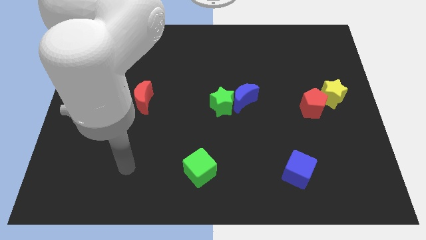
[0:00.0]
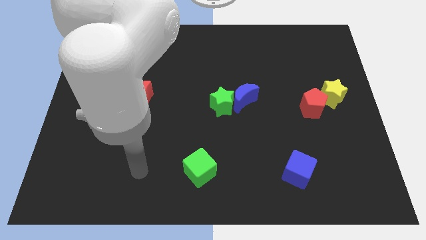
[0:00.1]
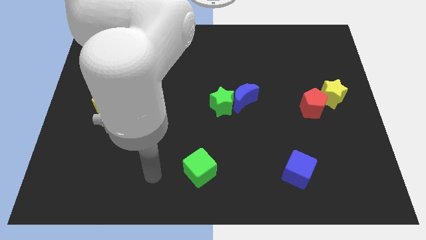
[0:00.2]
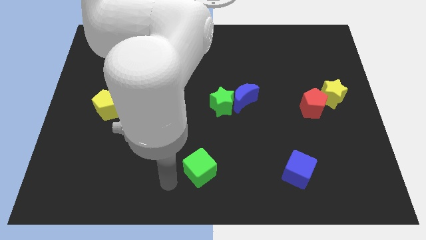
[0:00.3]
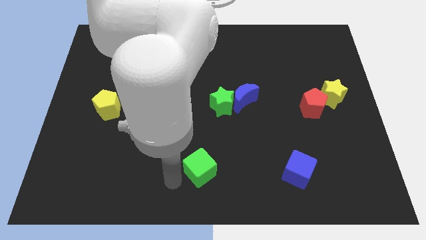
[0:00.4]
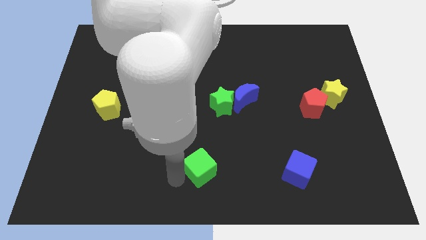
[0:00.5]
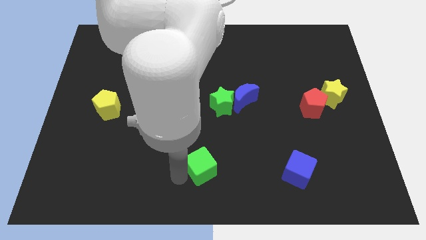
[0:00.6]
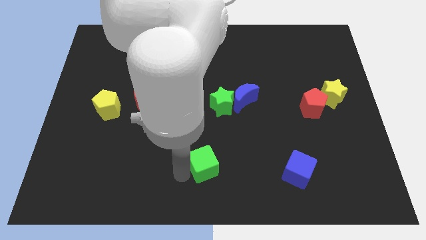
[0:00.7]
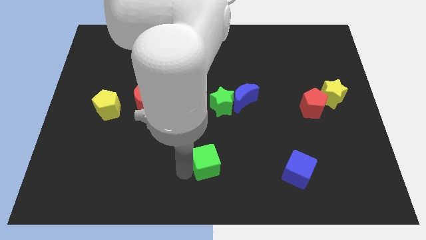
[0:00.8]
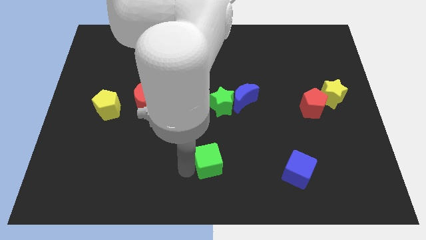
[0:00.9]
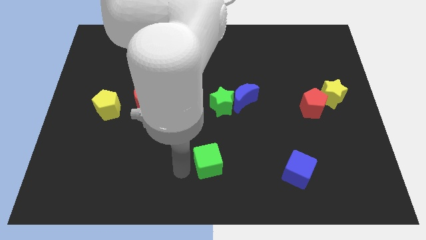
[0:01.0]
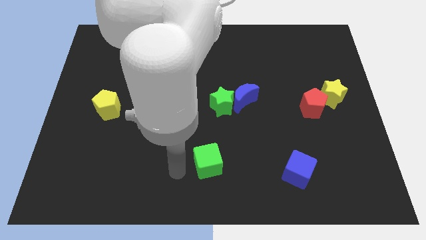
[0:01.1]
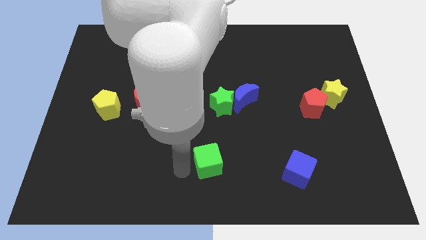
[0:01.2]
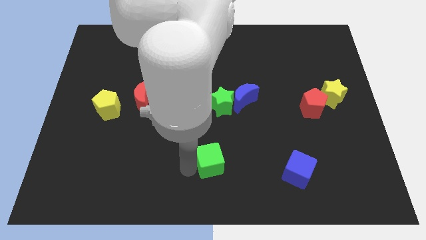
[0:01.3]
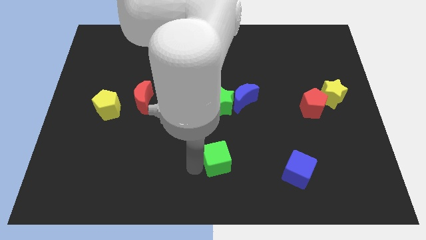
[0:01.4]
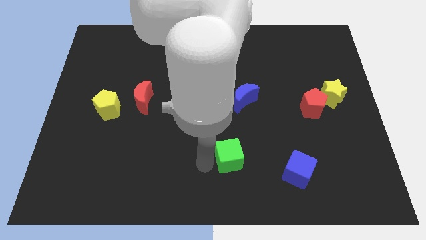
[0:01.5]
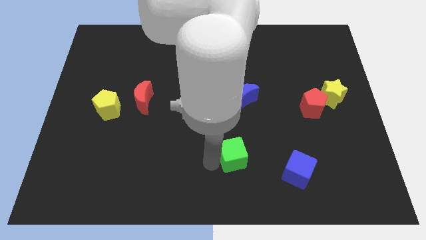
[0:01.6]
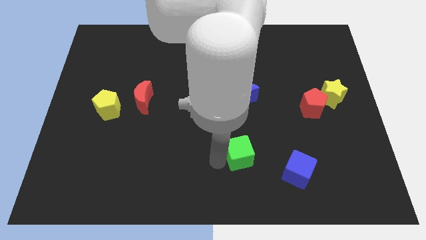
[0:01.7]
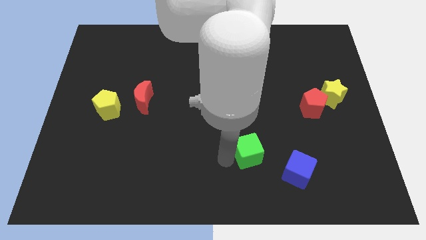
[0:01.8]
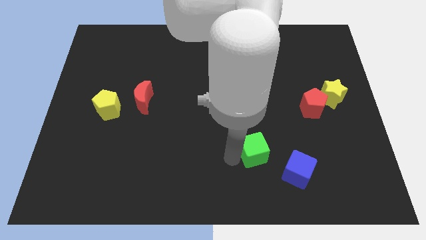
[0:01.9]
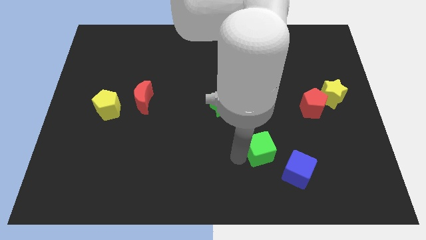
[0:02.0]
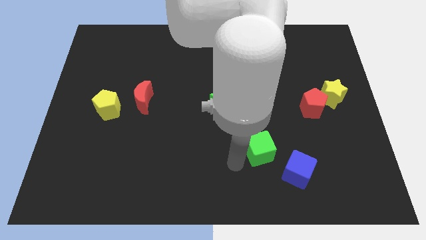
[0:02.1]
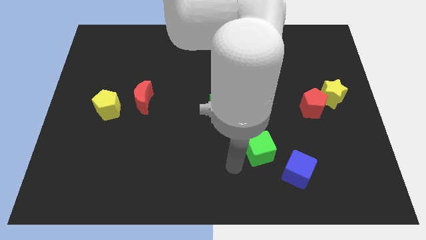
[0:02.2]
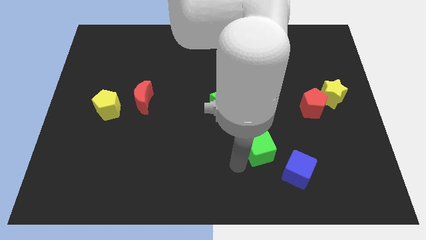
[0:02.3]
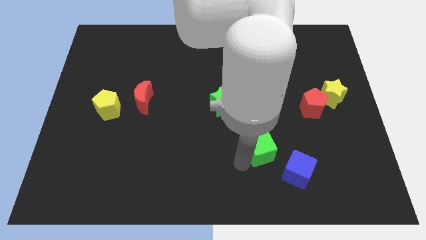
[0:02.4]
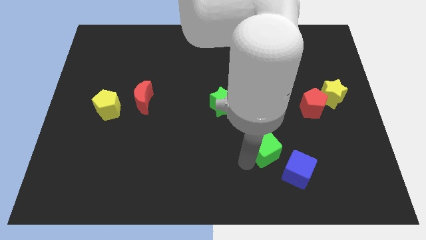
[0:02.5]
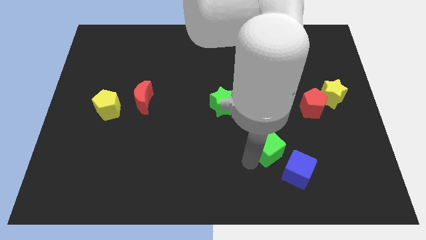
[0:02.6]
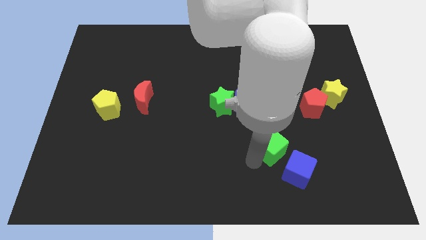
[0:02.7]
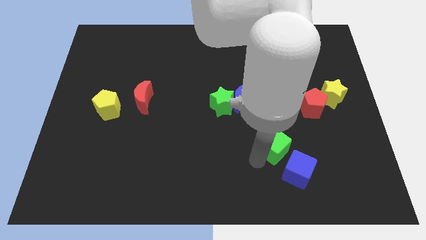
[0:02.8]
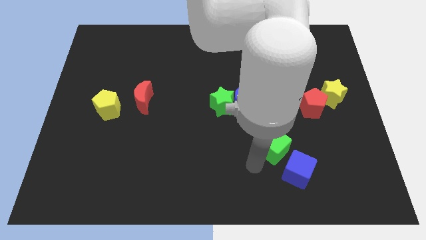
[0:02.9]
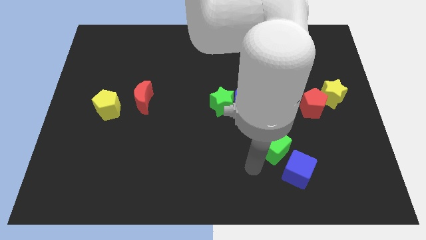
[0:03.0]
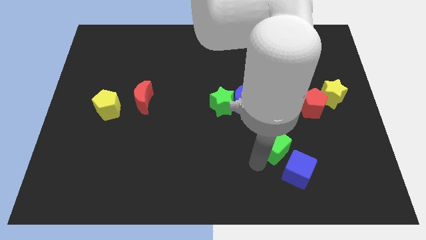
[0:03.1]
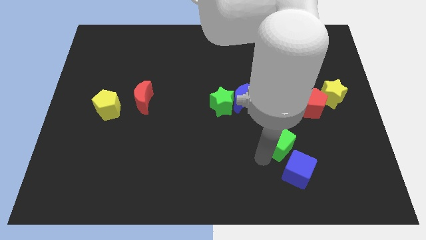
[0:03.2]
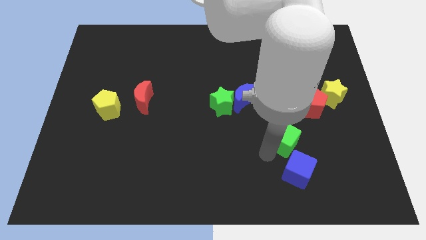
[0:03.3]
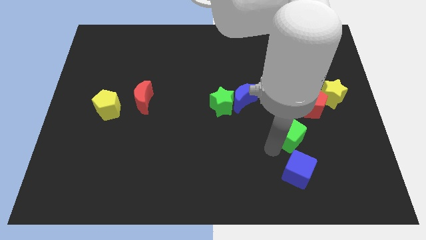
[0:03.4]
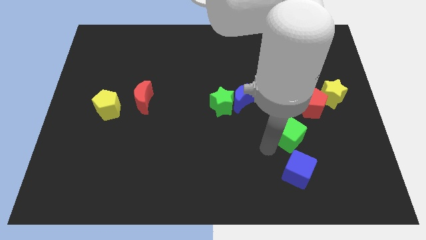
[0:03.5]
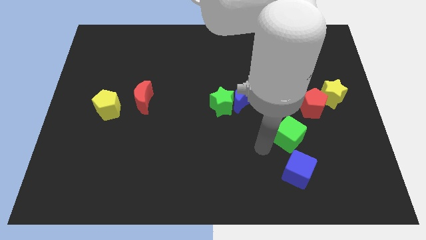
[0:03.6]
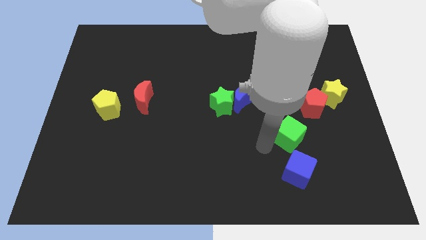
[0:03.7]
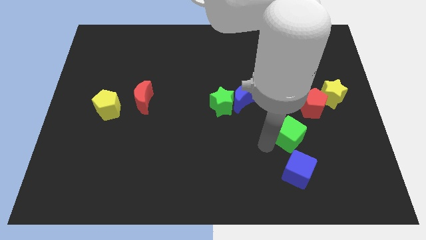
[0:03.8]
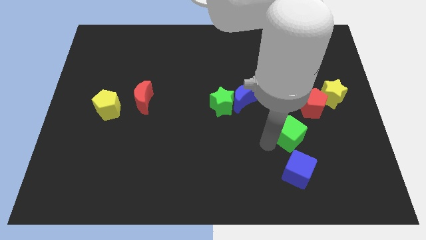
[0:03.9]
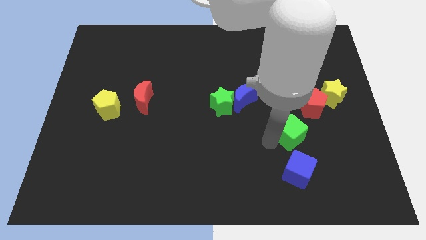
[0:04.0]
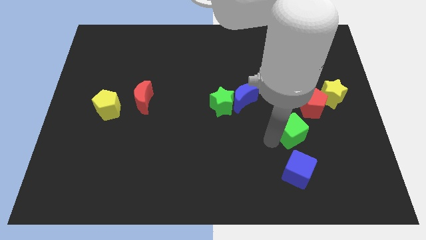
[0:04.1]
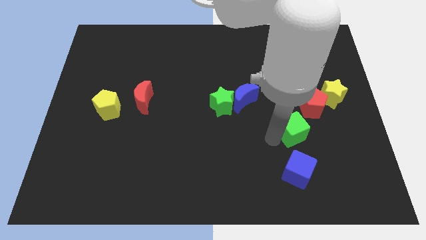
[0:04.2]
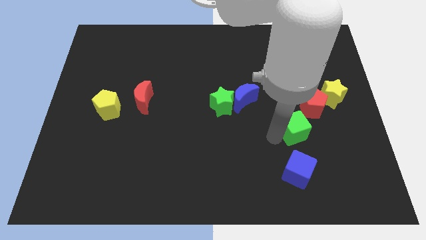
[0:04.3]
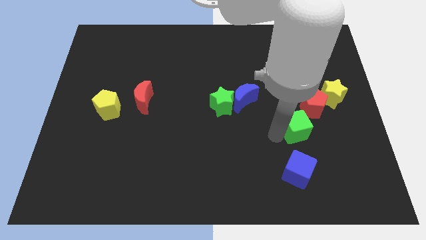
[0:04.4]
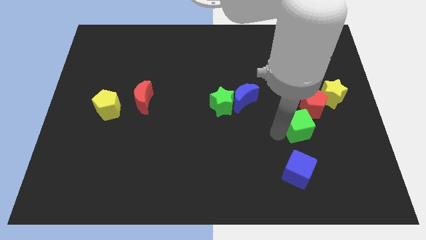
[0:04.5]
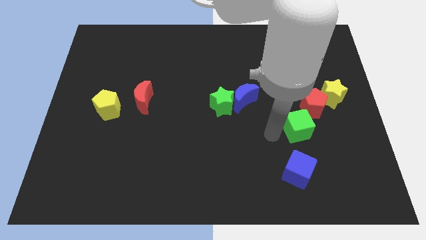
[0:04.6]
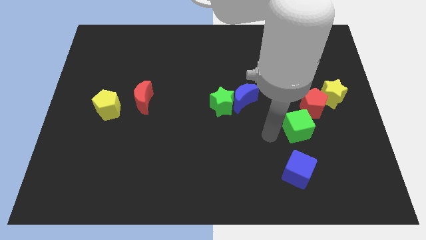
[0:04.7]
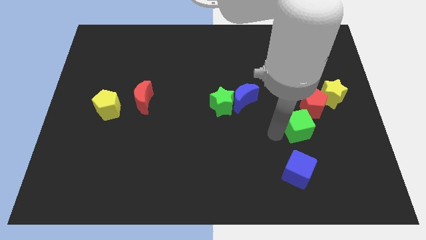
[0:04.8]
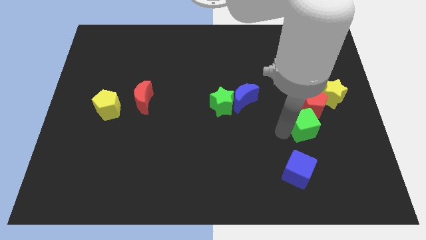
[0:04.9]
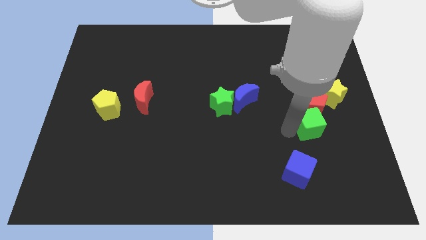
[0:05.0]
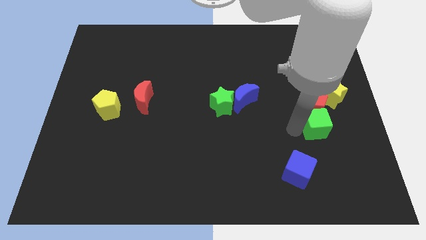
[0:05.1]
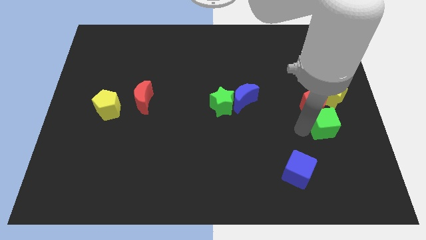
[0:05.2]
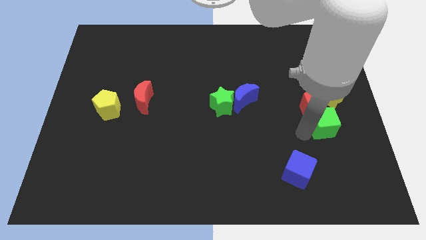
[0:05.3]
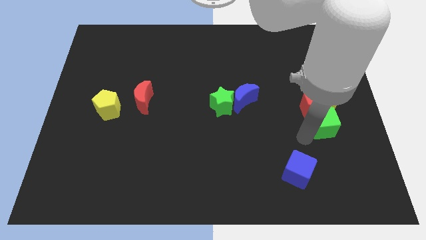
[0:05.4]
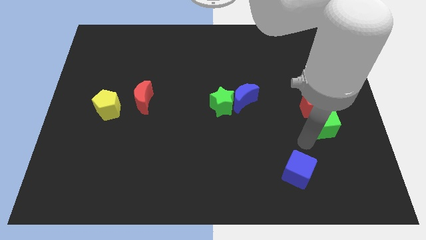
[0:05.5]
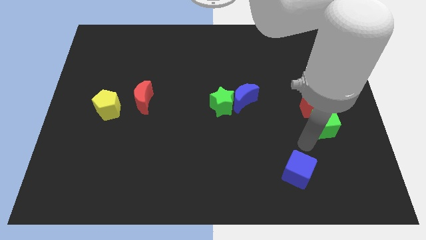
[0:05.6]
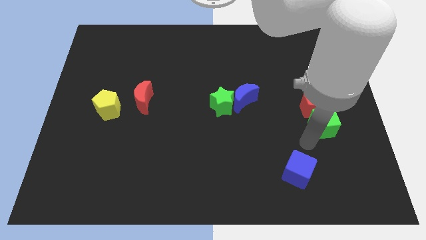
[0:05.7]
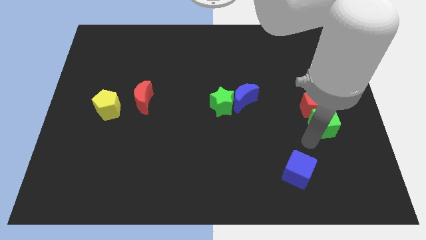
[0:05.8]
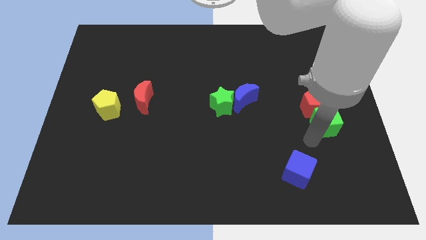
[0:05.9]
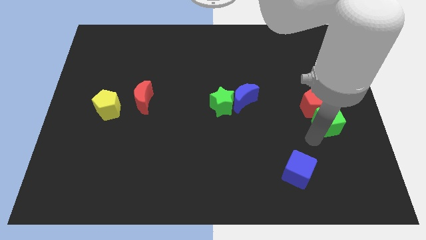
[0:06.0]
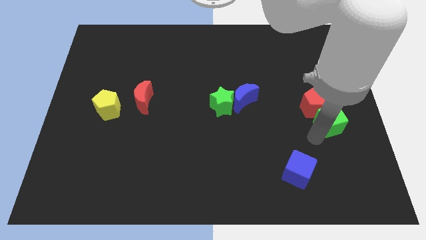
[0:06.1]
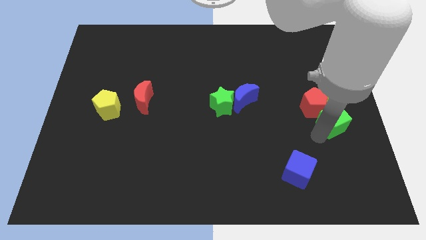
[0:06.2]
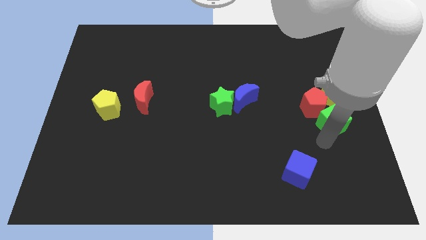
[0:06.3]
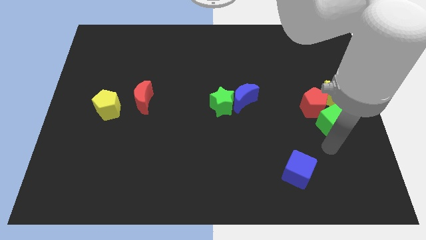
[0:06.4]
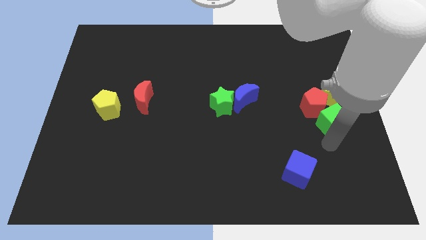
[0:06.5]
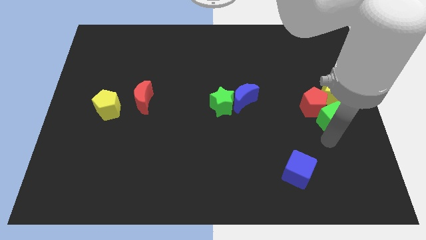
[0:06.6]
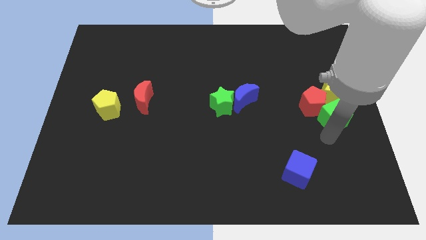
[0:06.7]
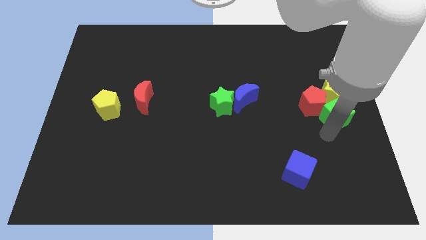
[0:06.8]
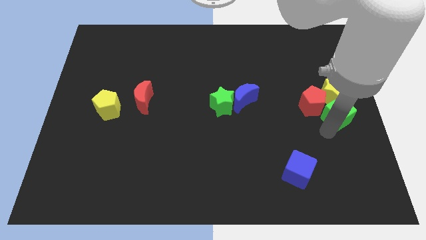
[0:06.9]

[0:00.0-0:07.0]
push the green cube next to the yellow star

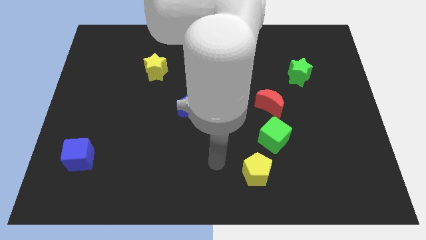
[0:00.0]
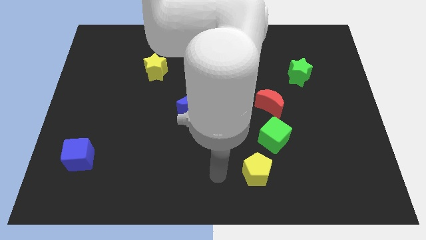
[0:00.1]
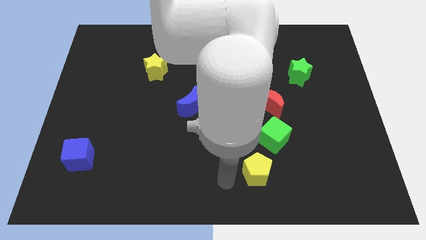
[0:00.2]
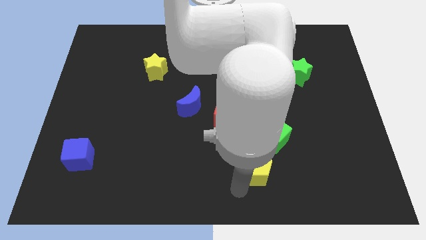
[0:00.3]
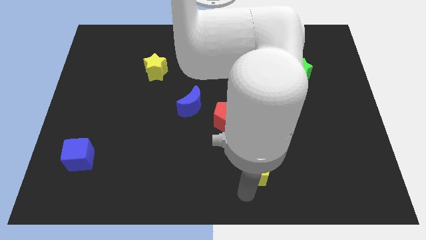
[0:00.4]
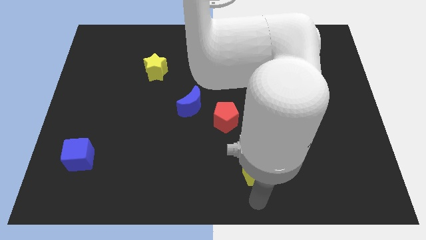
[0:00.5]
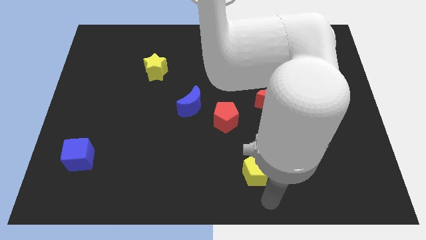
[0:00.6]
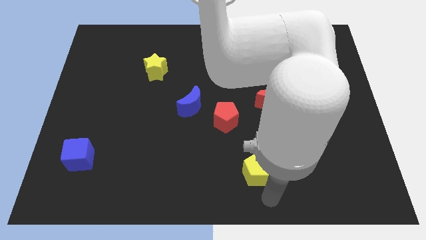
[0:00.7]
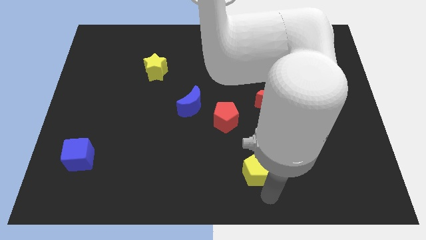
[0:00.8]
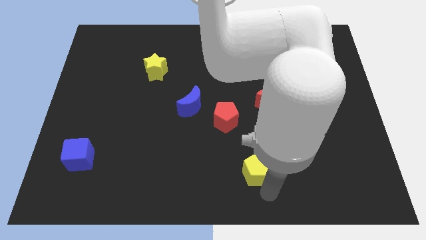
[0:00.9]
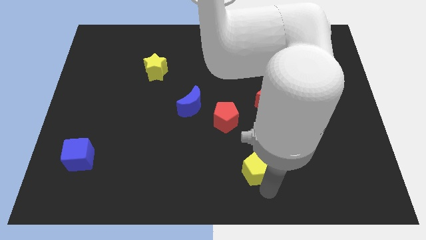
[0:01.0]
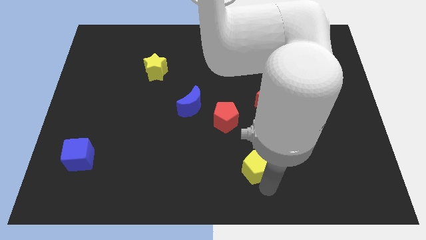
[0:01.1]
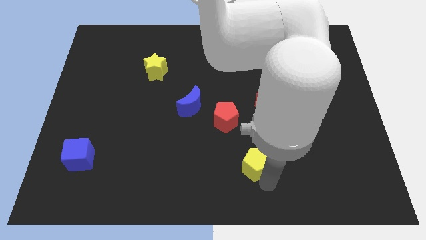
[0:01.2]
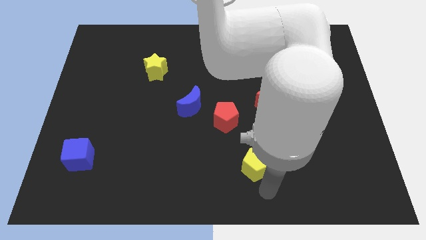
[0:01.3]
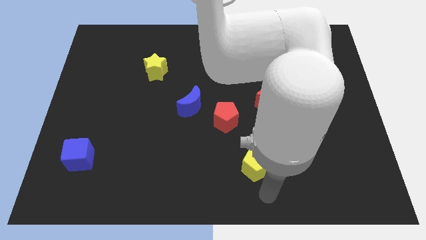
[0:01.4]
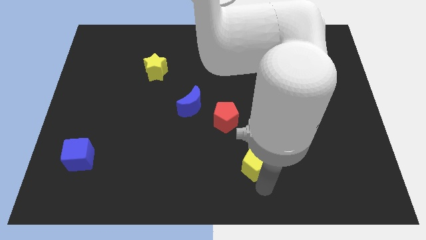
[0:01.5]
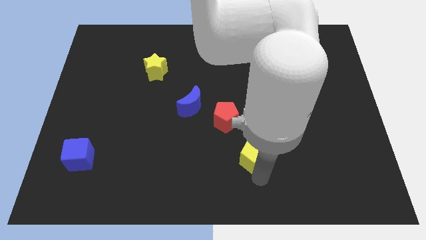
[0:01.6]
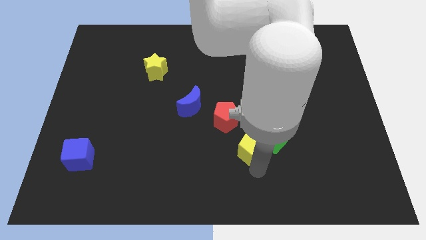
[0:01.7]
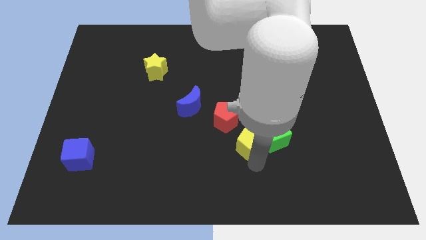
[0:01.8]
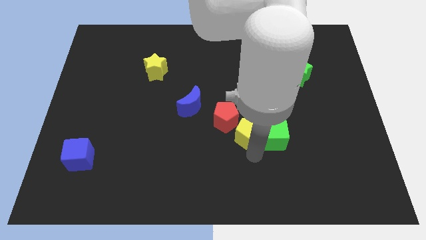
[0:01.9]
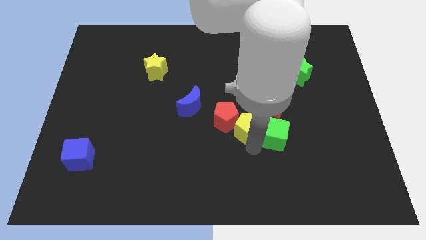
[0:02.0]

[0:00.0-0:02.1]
push the yellow pentagon towards the red pentagon
